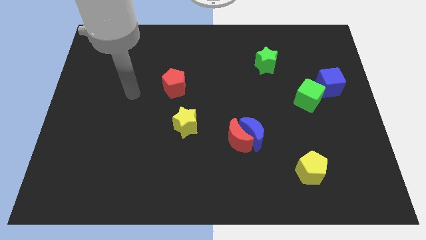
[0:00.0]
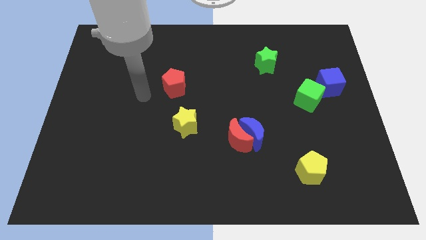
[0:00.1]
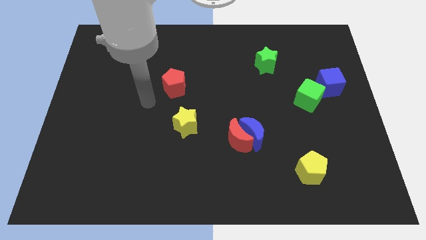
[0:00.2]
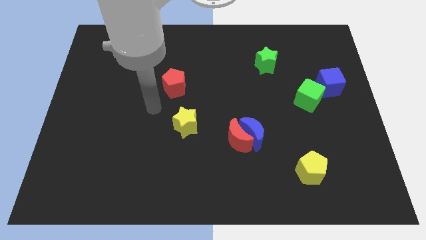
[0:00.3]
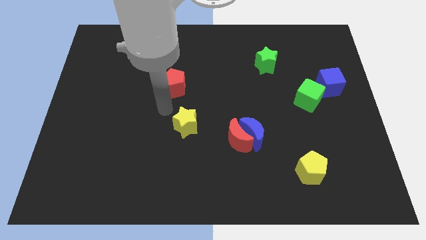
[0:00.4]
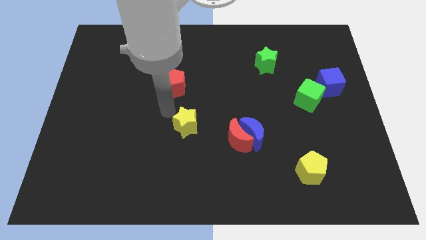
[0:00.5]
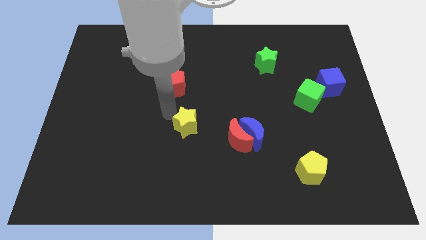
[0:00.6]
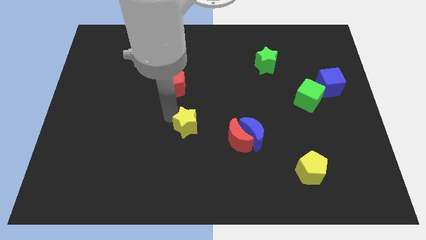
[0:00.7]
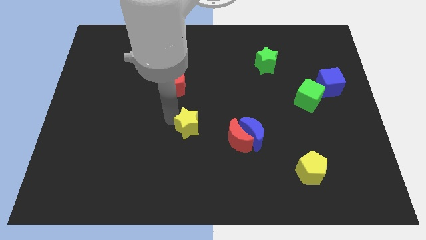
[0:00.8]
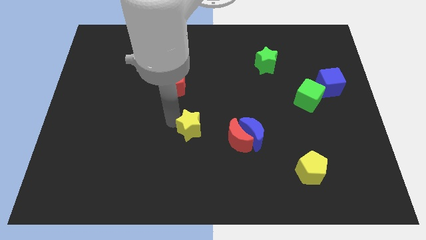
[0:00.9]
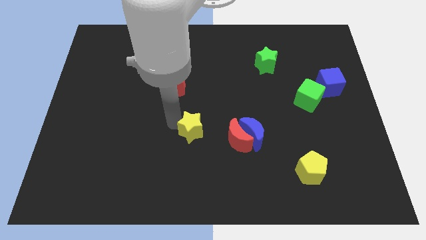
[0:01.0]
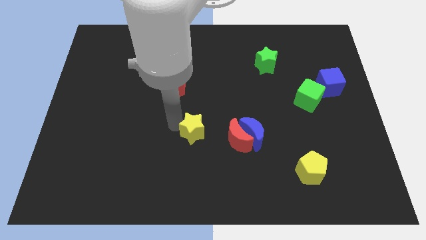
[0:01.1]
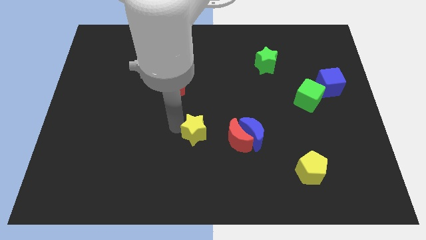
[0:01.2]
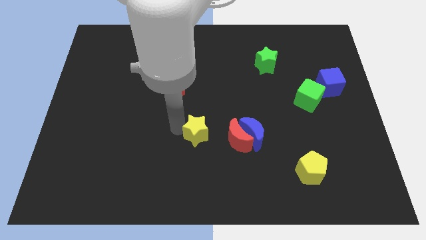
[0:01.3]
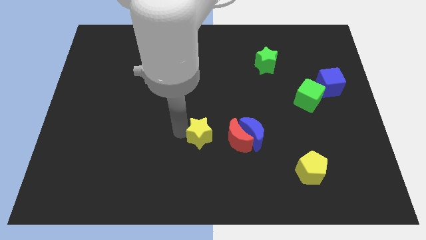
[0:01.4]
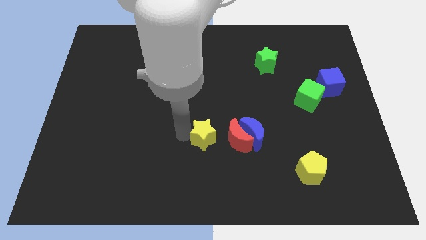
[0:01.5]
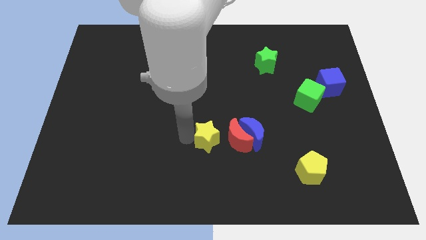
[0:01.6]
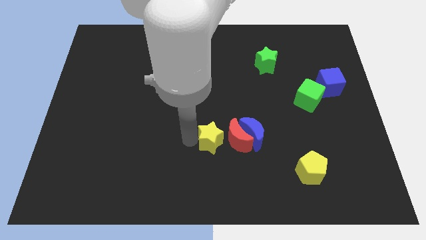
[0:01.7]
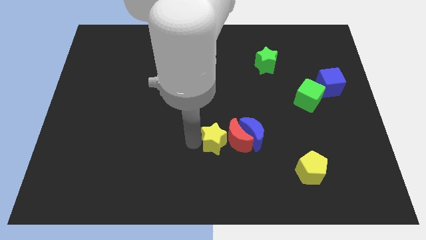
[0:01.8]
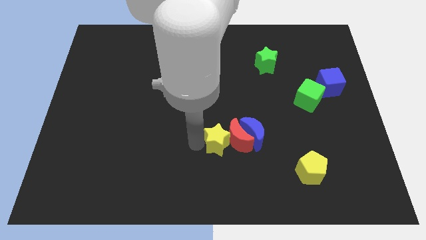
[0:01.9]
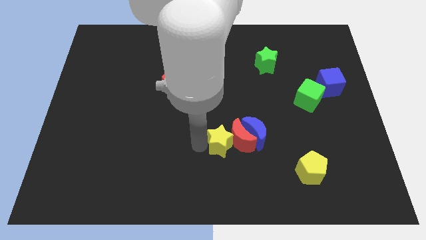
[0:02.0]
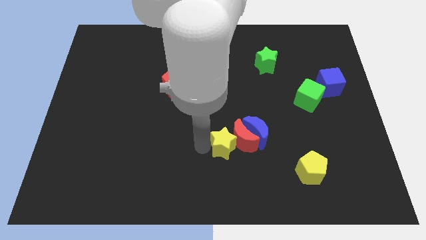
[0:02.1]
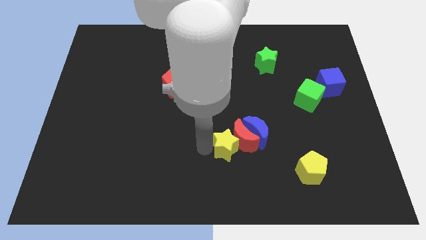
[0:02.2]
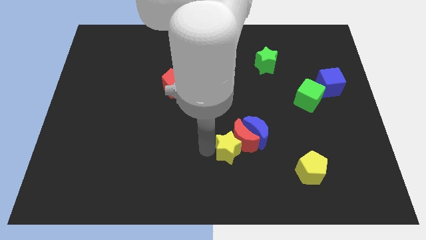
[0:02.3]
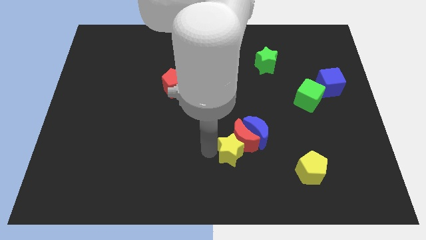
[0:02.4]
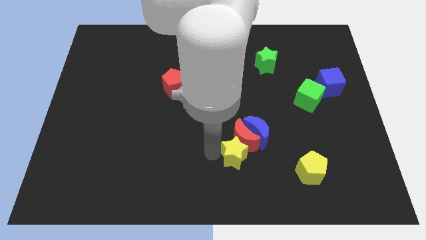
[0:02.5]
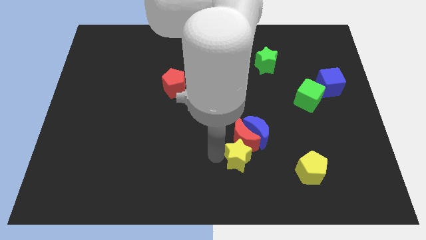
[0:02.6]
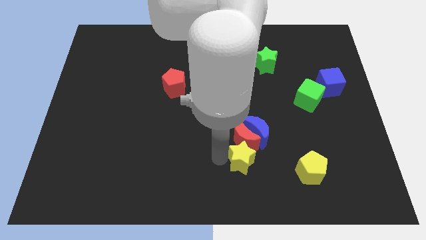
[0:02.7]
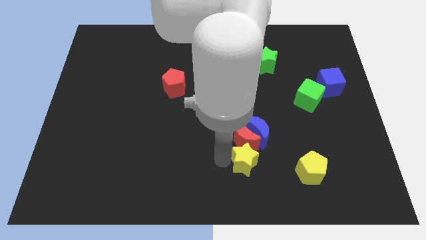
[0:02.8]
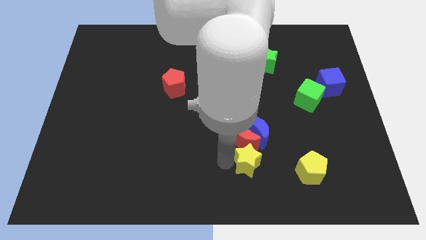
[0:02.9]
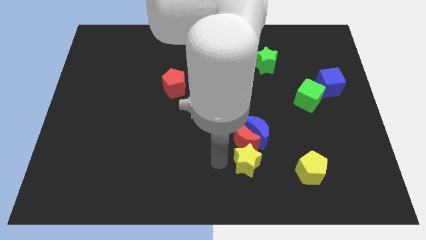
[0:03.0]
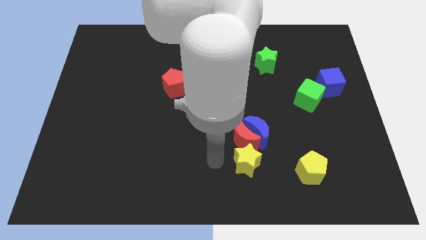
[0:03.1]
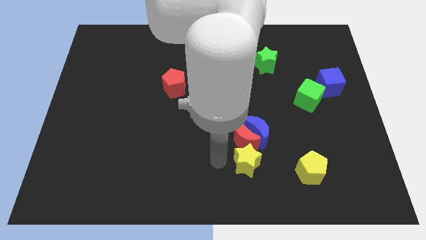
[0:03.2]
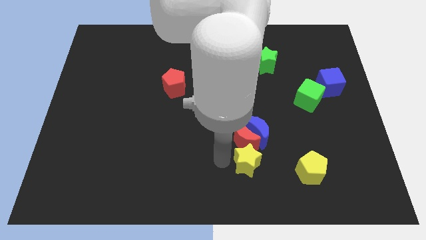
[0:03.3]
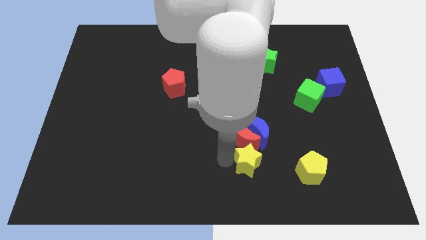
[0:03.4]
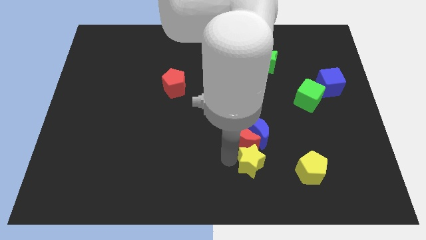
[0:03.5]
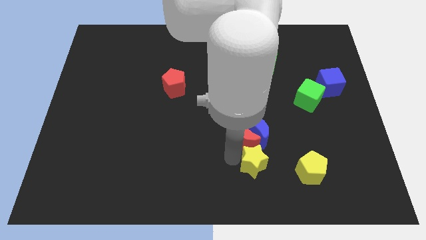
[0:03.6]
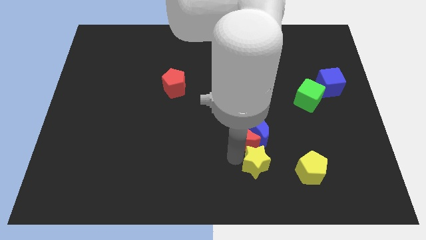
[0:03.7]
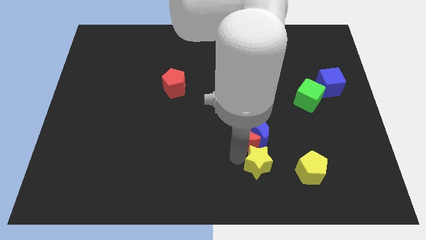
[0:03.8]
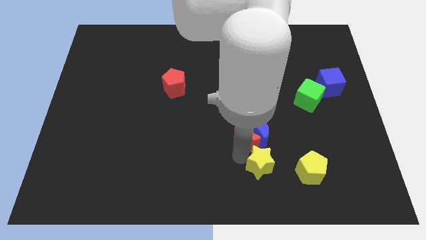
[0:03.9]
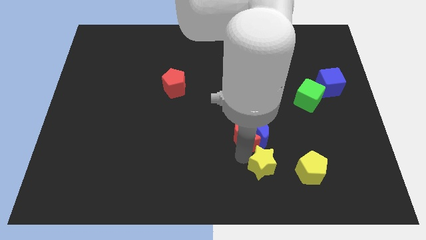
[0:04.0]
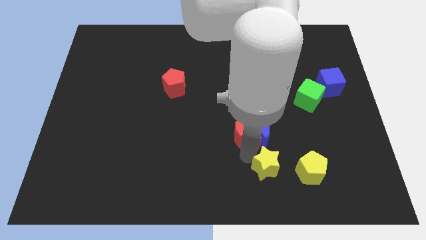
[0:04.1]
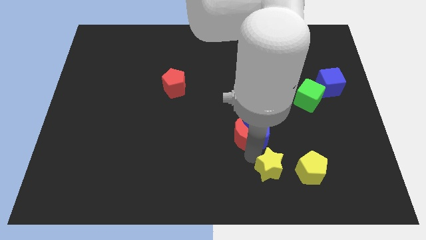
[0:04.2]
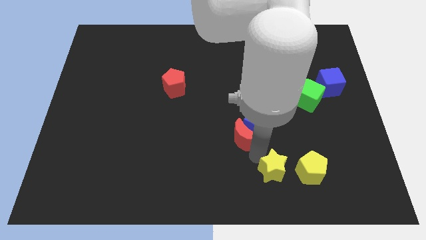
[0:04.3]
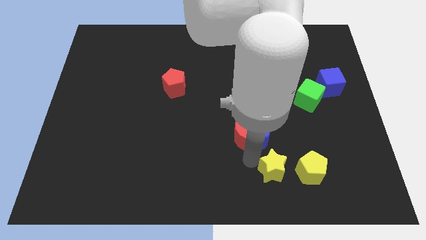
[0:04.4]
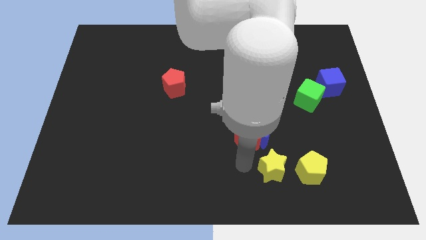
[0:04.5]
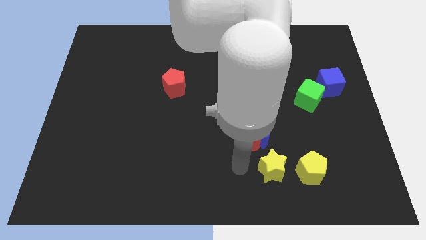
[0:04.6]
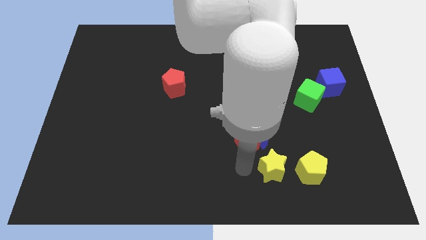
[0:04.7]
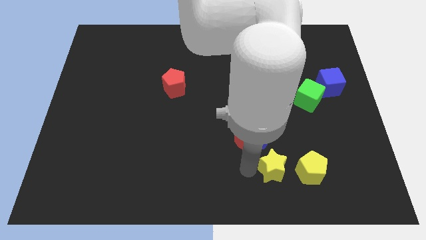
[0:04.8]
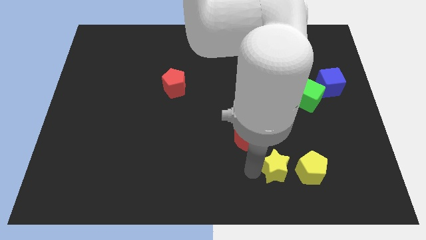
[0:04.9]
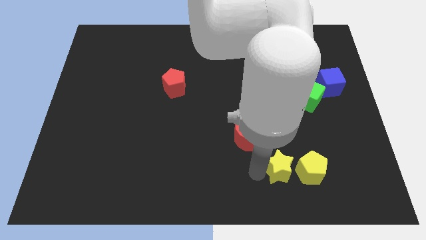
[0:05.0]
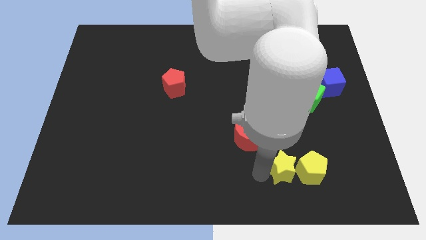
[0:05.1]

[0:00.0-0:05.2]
push the yellow star towards the yellow pentagon

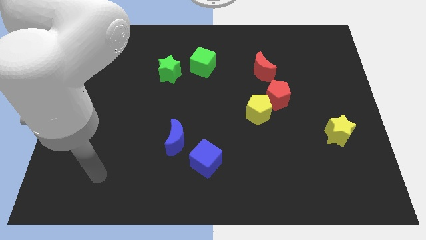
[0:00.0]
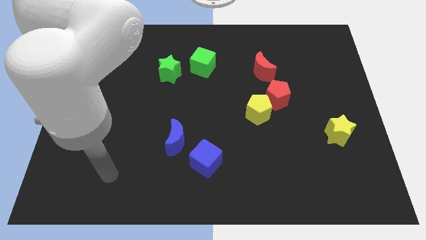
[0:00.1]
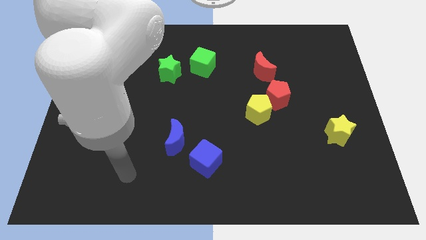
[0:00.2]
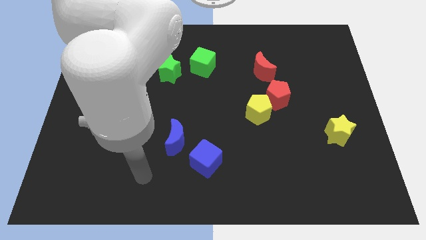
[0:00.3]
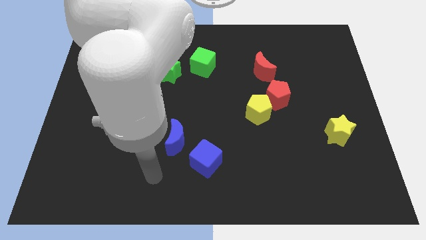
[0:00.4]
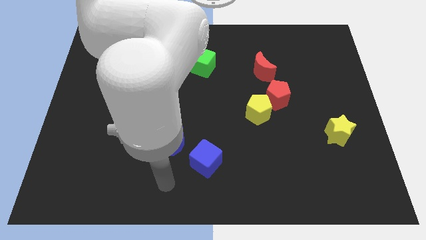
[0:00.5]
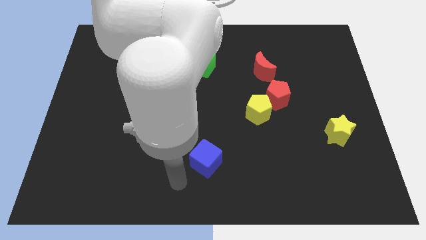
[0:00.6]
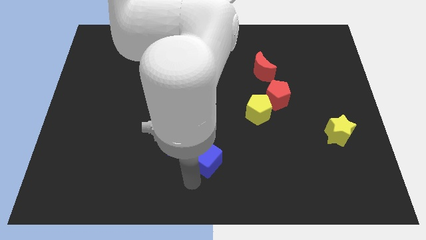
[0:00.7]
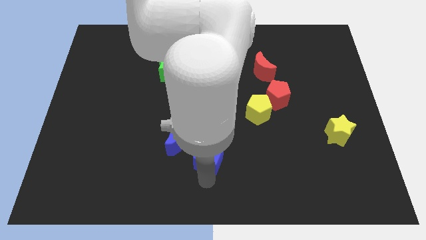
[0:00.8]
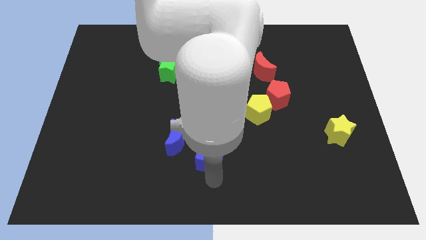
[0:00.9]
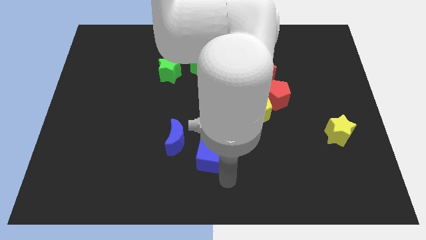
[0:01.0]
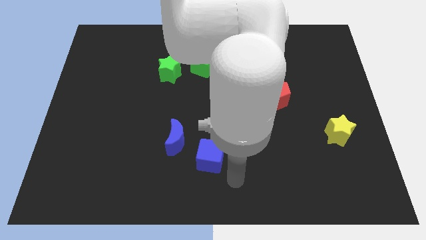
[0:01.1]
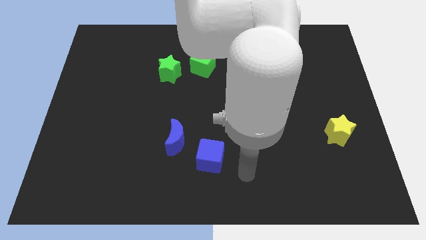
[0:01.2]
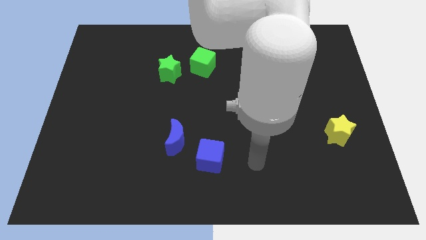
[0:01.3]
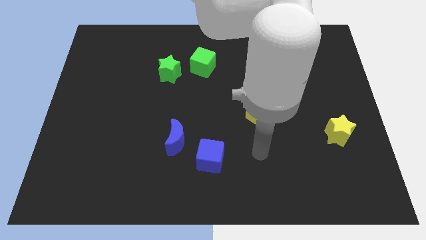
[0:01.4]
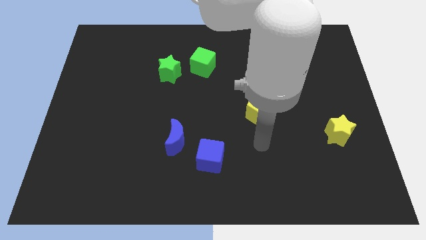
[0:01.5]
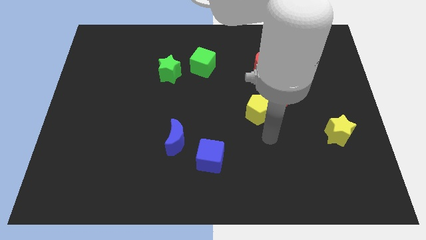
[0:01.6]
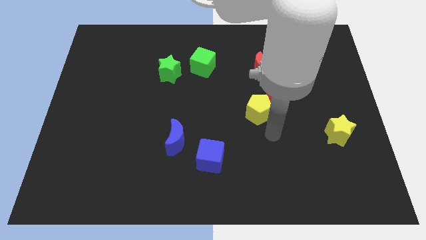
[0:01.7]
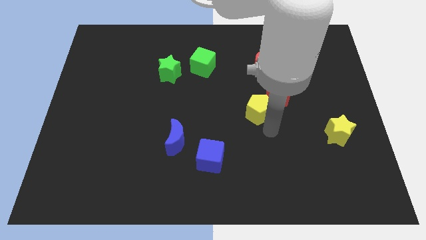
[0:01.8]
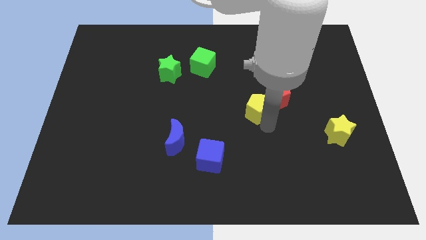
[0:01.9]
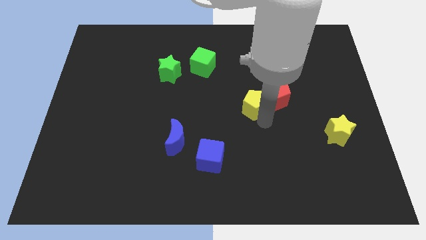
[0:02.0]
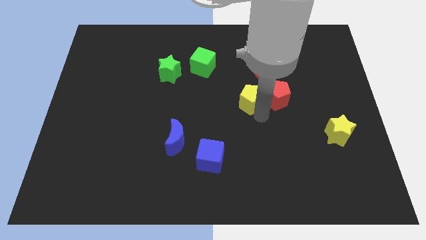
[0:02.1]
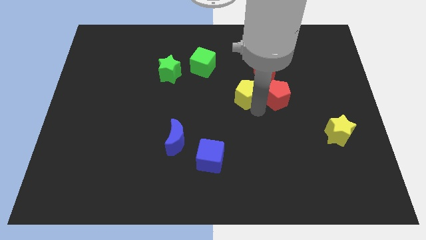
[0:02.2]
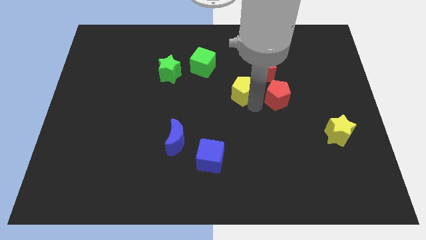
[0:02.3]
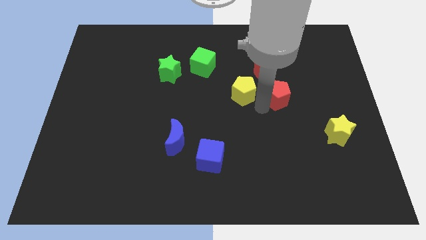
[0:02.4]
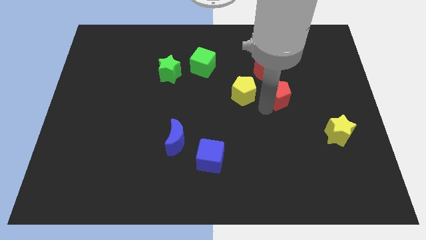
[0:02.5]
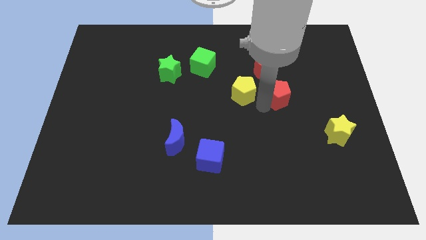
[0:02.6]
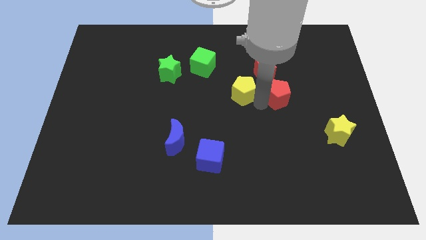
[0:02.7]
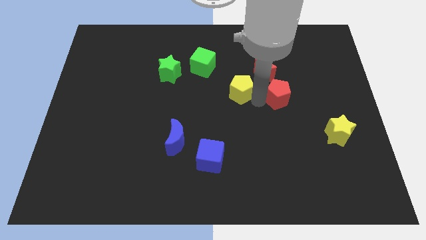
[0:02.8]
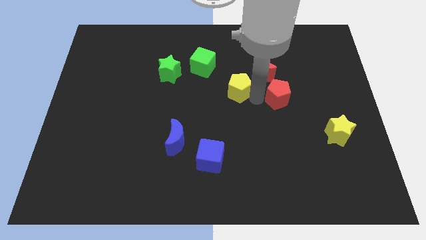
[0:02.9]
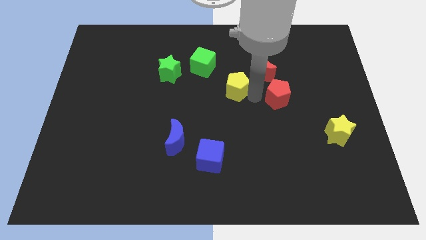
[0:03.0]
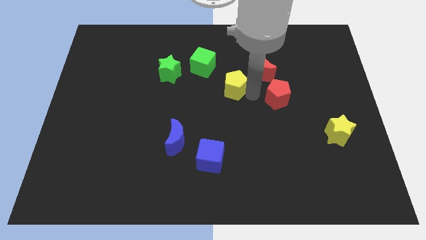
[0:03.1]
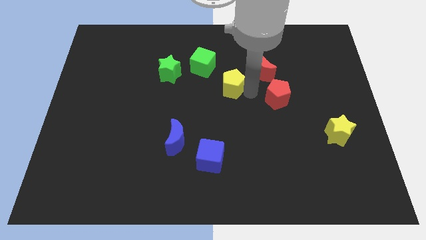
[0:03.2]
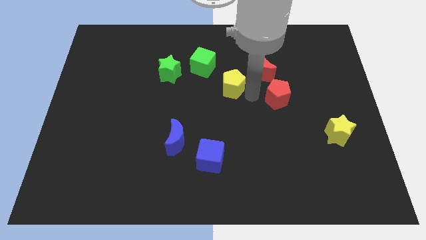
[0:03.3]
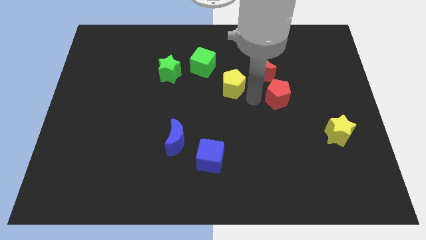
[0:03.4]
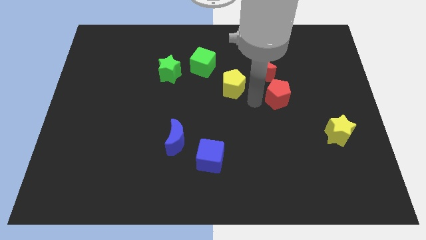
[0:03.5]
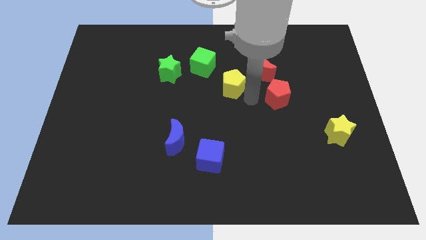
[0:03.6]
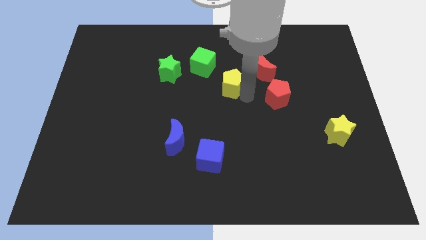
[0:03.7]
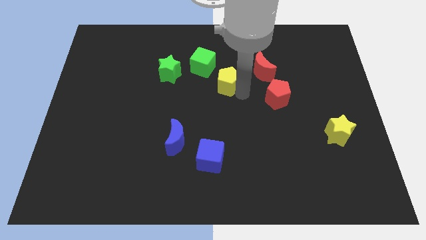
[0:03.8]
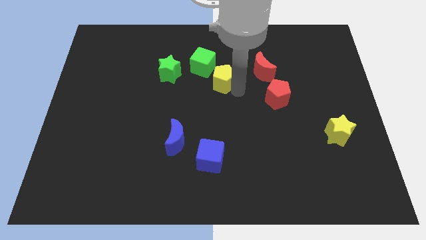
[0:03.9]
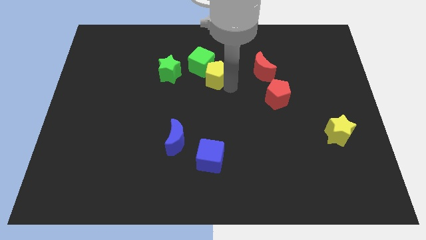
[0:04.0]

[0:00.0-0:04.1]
push the yellow pentagon close to the green cube
